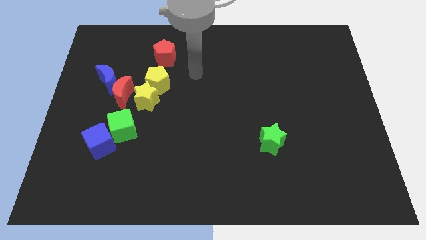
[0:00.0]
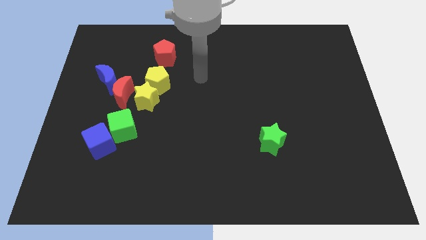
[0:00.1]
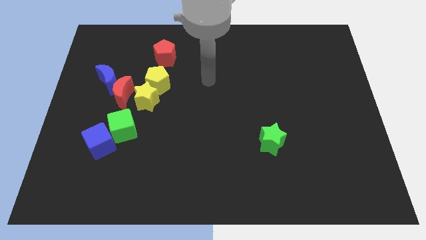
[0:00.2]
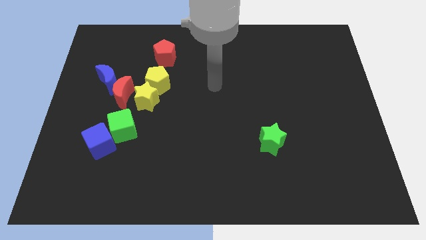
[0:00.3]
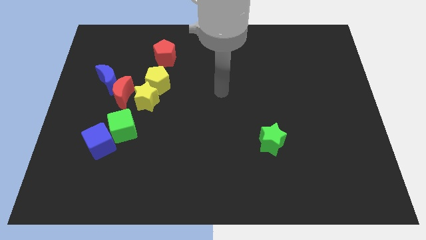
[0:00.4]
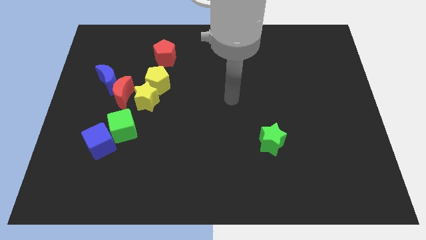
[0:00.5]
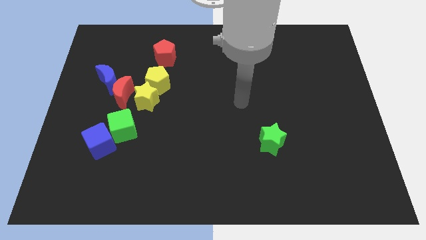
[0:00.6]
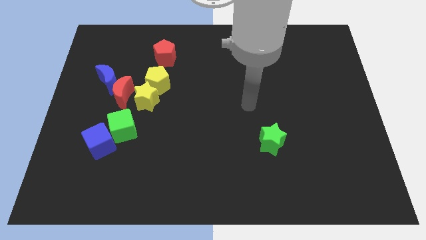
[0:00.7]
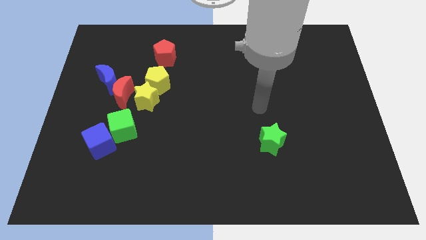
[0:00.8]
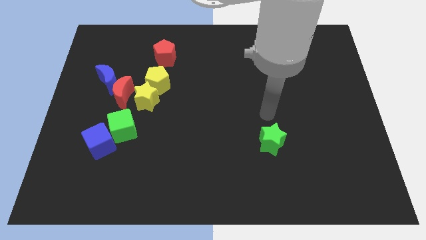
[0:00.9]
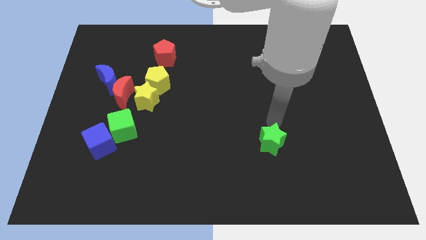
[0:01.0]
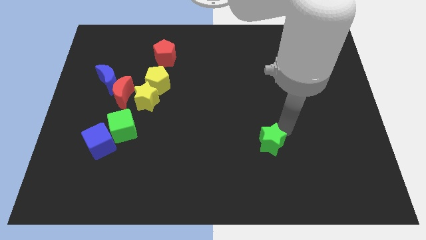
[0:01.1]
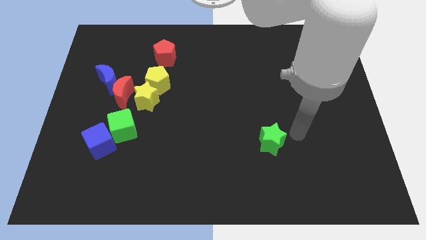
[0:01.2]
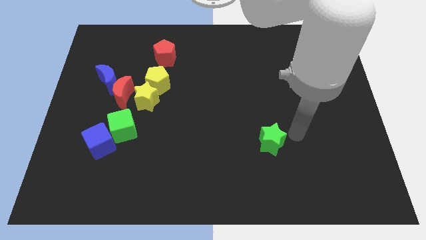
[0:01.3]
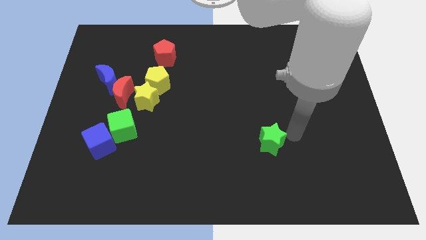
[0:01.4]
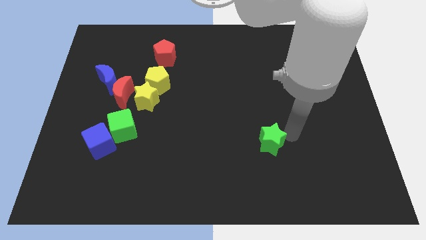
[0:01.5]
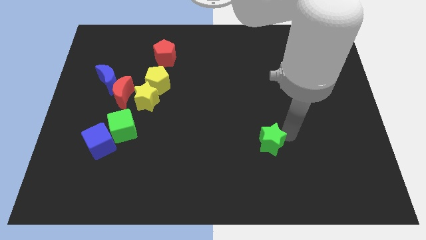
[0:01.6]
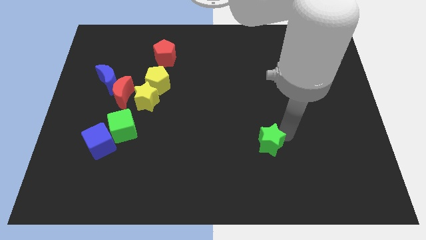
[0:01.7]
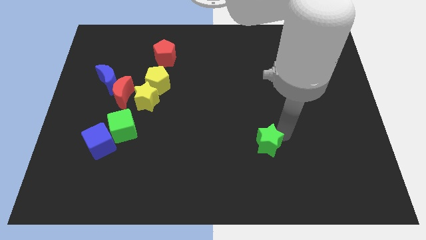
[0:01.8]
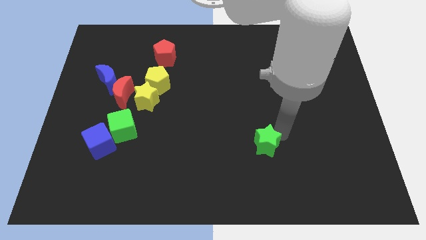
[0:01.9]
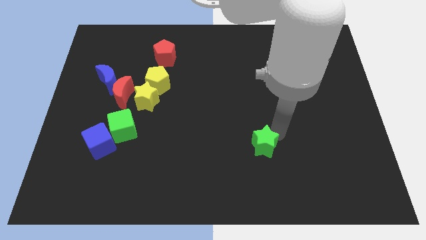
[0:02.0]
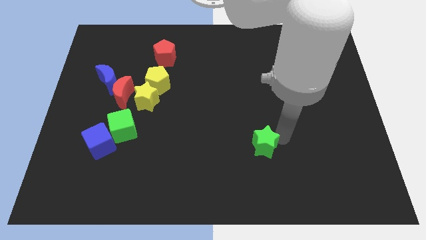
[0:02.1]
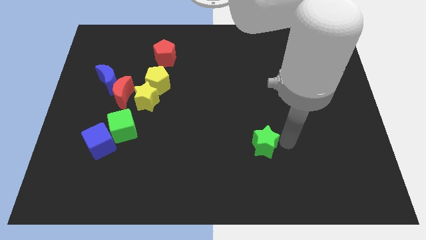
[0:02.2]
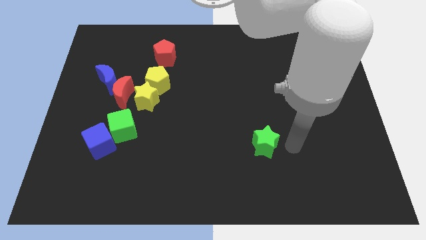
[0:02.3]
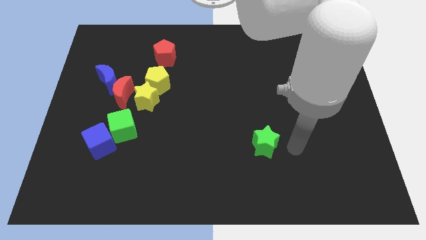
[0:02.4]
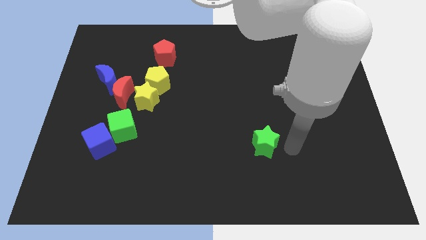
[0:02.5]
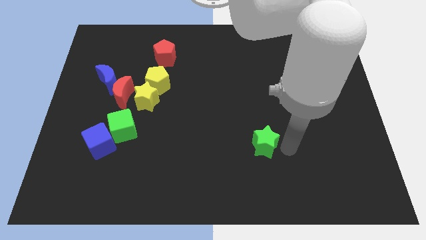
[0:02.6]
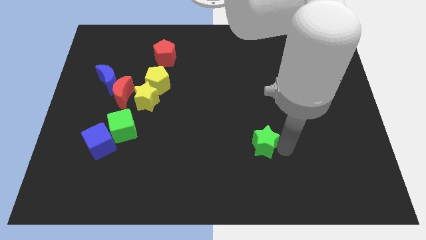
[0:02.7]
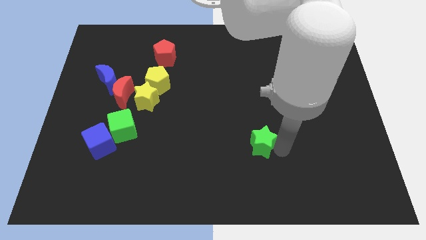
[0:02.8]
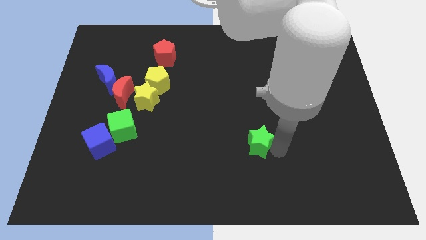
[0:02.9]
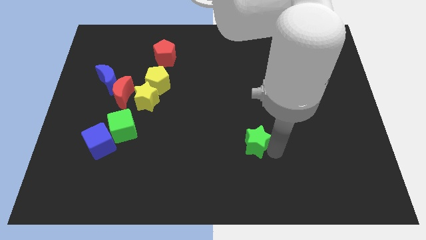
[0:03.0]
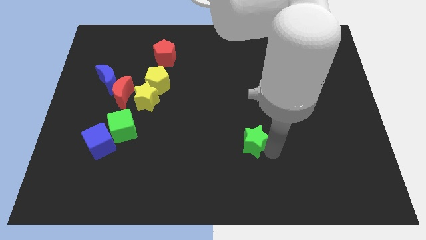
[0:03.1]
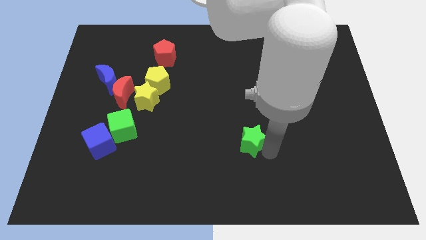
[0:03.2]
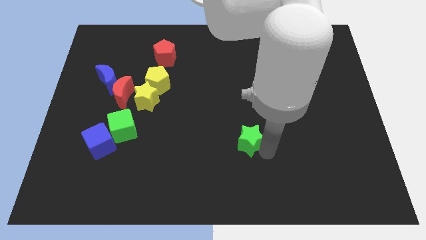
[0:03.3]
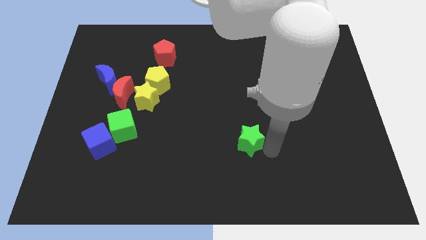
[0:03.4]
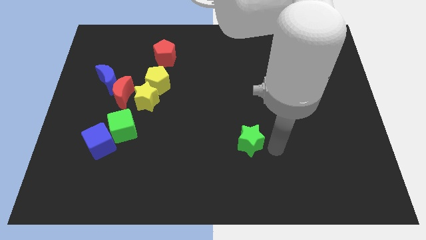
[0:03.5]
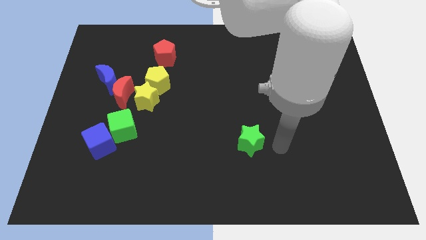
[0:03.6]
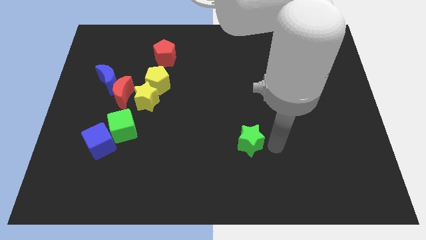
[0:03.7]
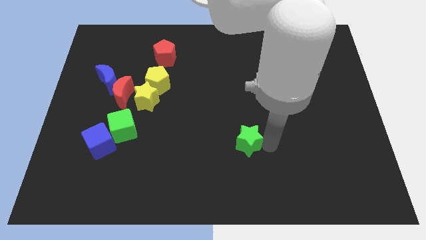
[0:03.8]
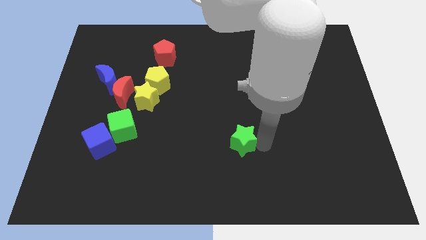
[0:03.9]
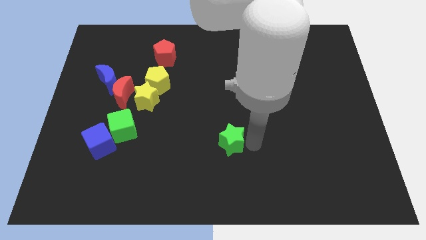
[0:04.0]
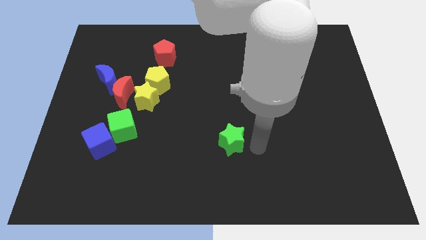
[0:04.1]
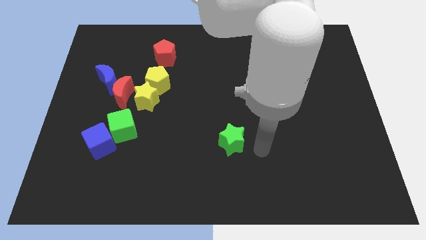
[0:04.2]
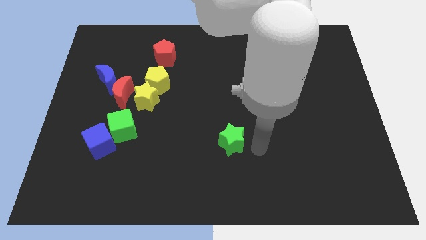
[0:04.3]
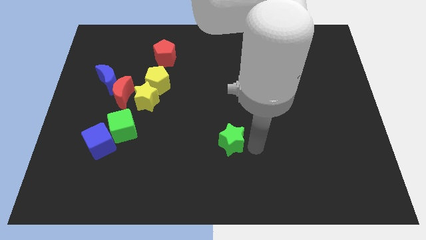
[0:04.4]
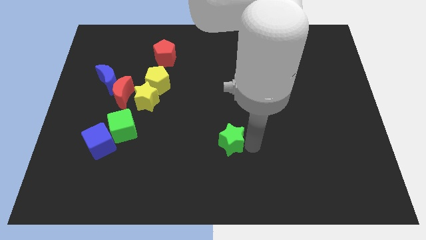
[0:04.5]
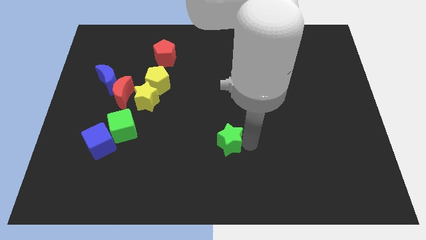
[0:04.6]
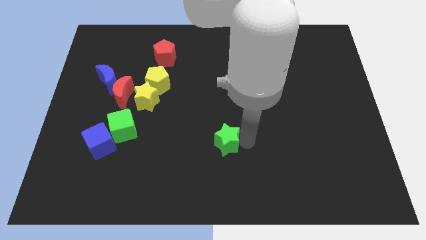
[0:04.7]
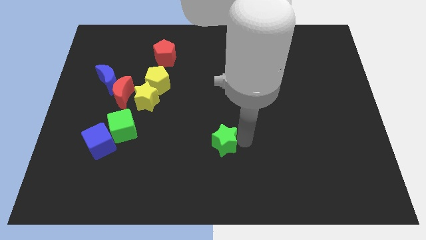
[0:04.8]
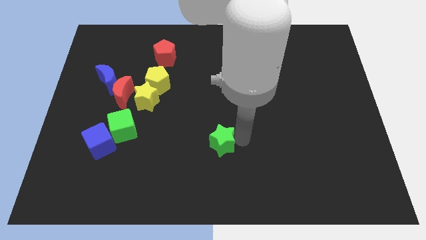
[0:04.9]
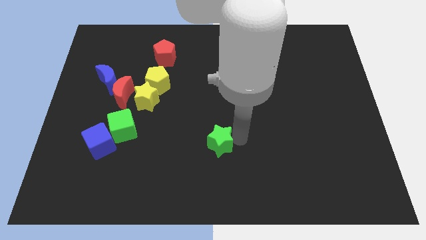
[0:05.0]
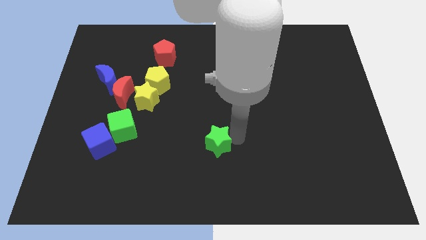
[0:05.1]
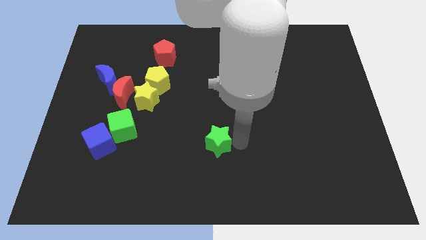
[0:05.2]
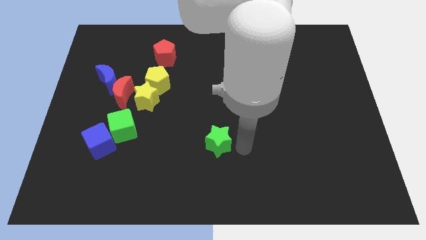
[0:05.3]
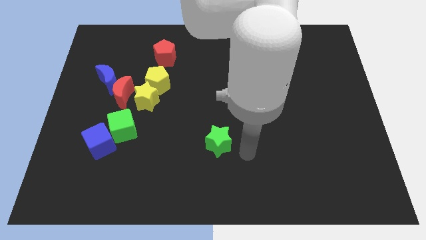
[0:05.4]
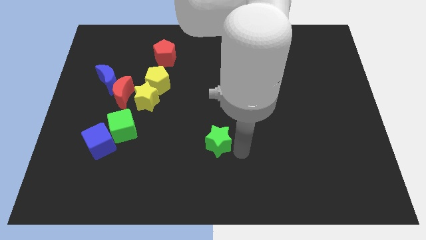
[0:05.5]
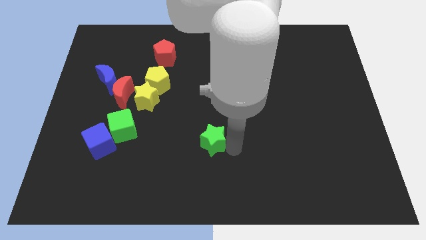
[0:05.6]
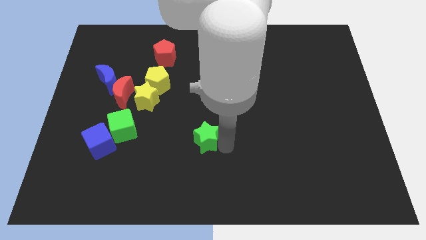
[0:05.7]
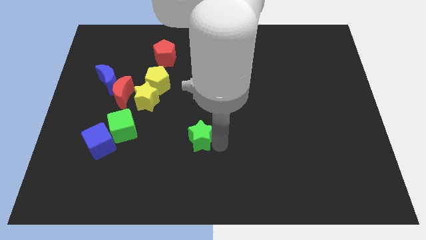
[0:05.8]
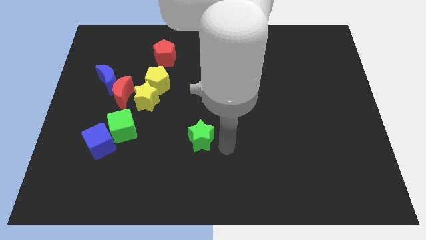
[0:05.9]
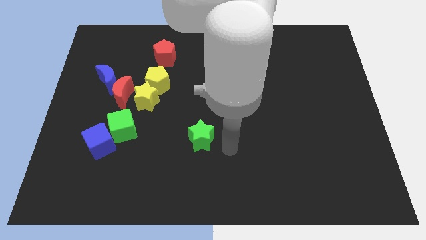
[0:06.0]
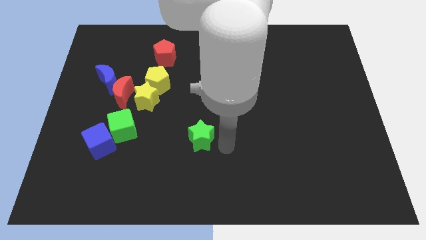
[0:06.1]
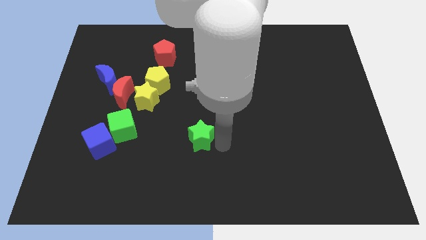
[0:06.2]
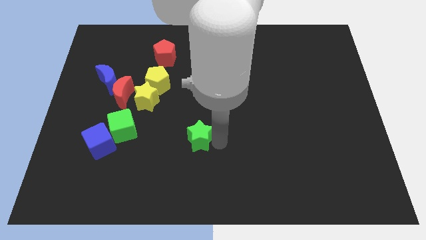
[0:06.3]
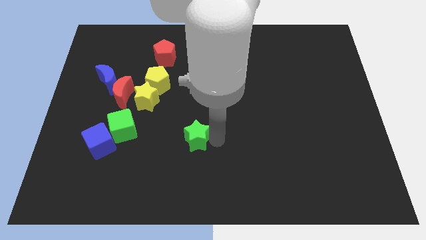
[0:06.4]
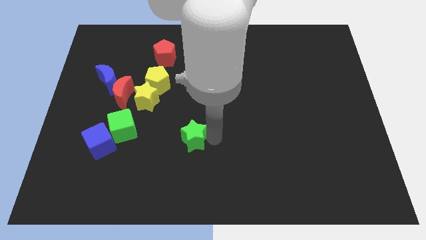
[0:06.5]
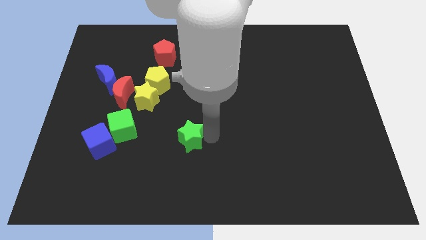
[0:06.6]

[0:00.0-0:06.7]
put the green star just right of the green cube

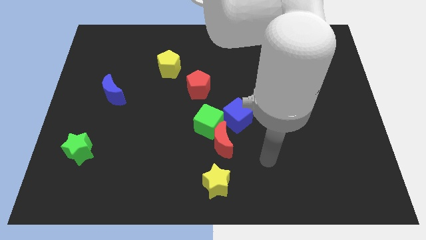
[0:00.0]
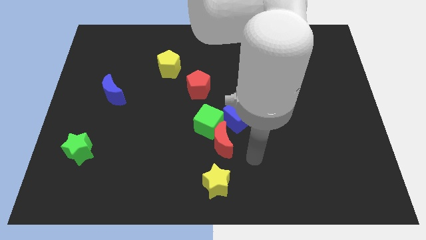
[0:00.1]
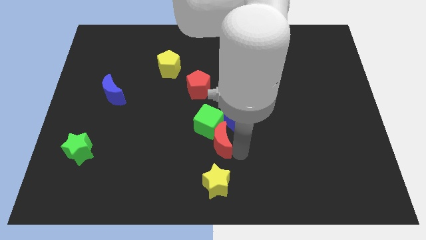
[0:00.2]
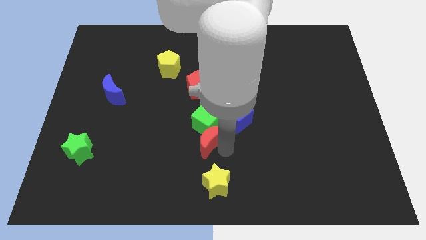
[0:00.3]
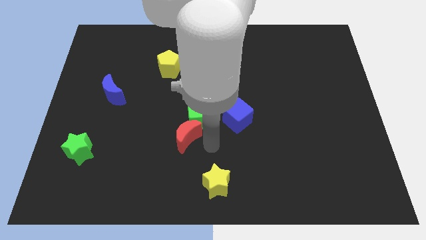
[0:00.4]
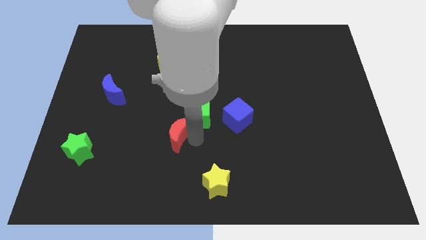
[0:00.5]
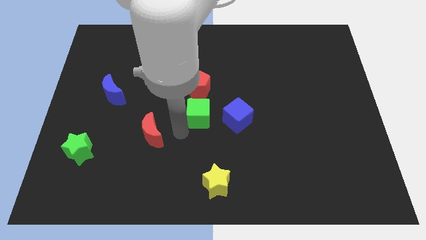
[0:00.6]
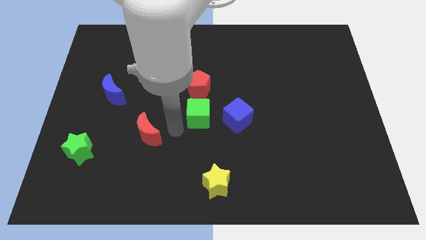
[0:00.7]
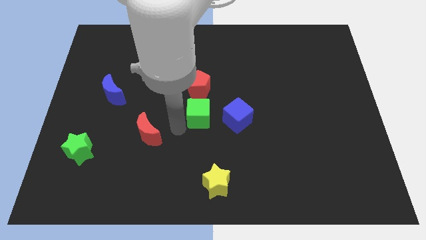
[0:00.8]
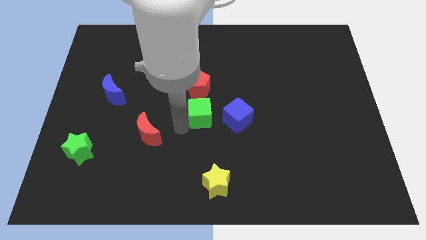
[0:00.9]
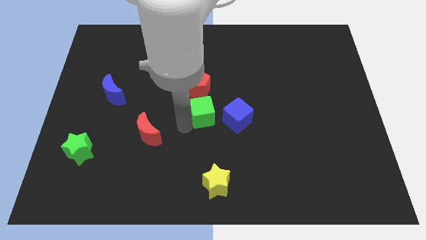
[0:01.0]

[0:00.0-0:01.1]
slide the green cube diagonally down and to the right of the red pentagon
